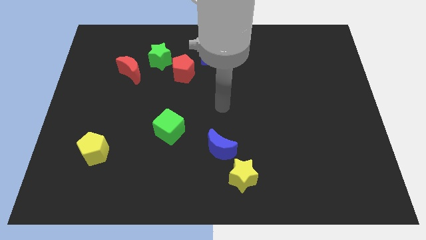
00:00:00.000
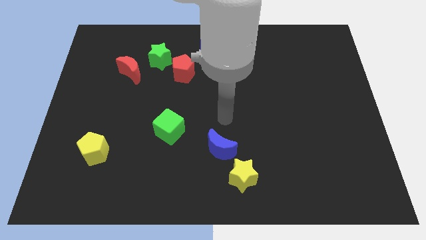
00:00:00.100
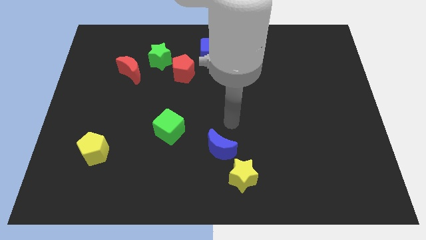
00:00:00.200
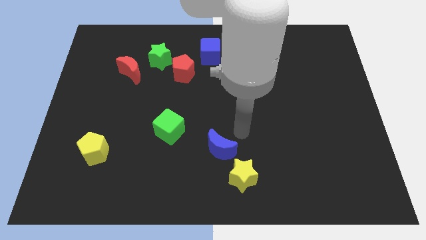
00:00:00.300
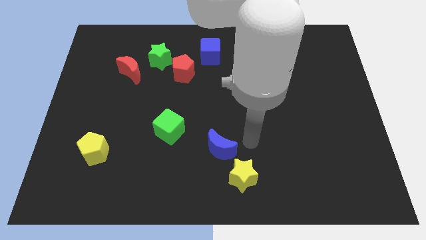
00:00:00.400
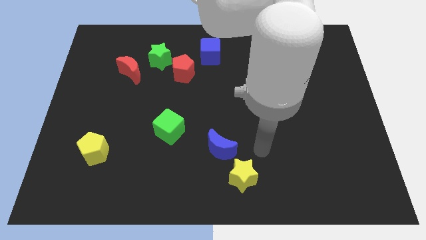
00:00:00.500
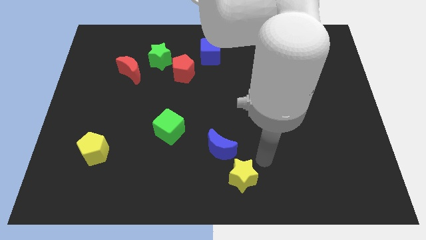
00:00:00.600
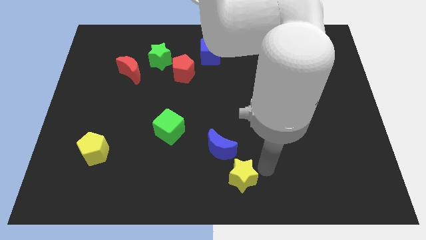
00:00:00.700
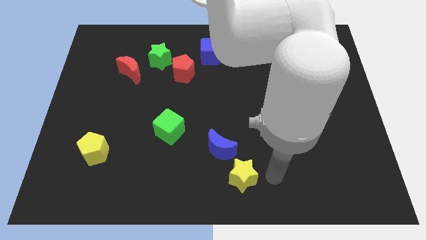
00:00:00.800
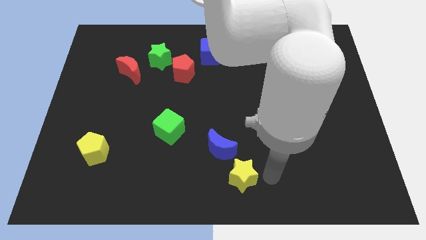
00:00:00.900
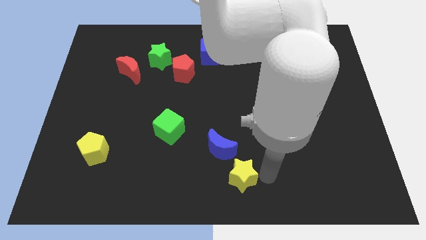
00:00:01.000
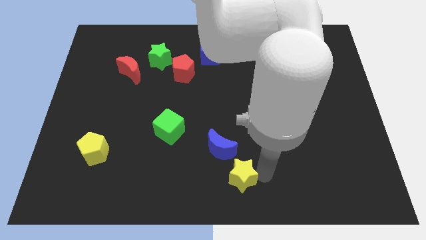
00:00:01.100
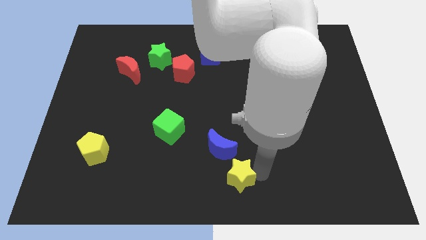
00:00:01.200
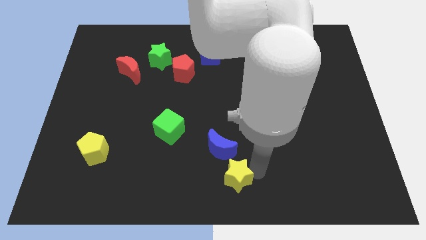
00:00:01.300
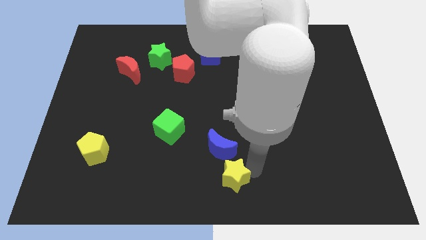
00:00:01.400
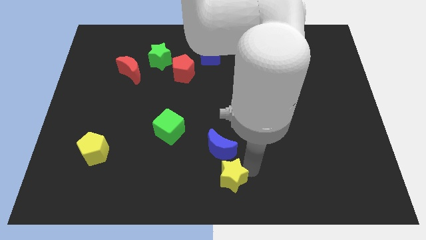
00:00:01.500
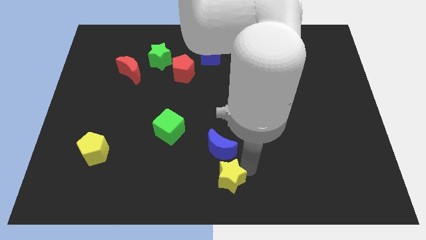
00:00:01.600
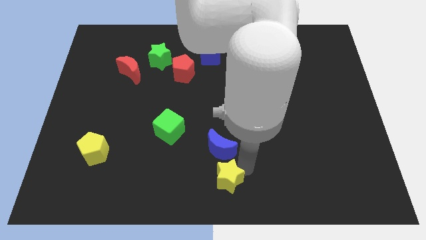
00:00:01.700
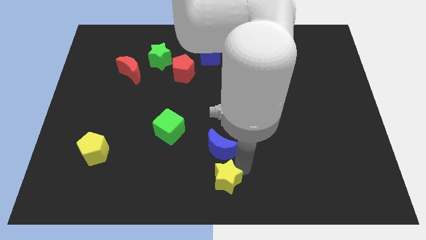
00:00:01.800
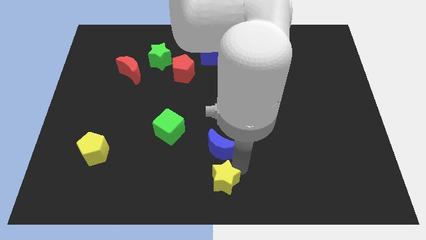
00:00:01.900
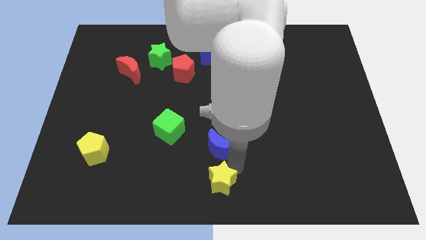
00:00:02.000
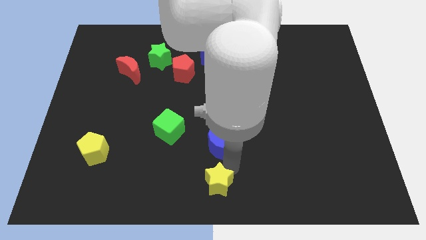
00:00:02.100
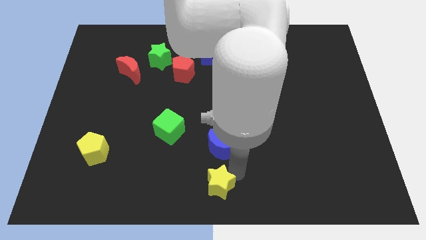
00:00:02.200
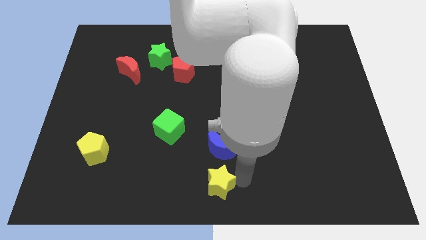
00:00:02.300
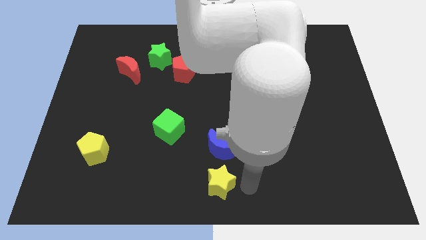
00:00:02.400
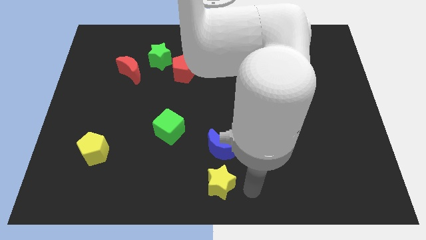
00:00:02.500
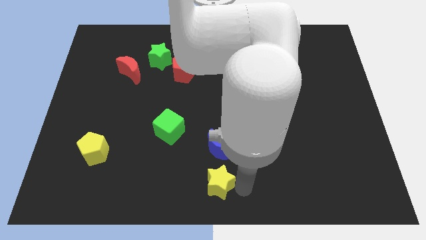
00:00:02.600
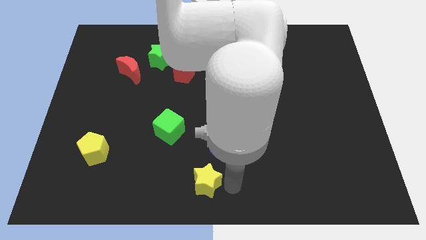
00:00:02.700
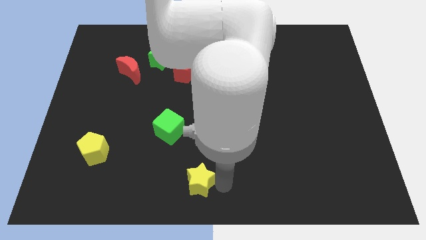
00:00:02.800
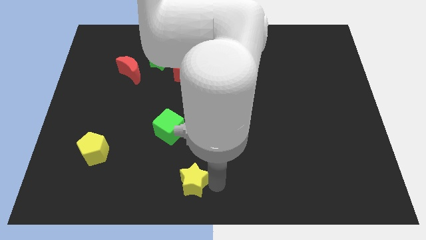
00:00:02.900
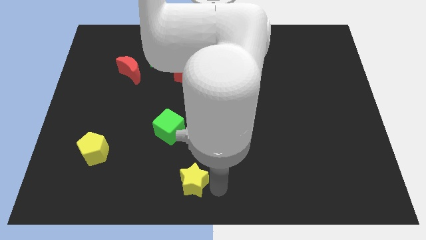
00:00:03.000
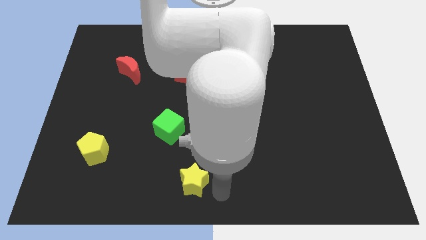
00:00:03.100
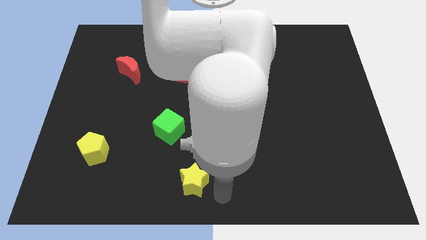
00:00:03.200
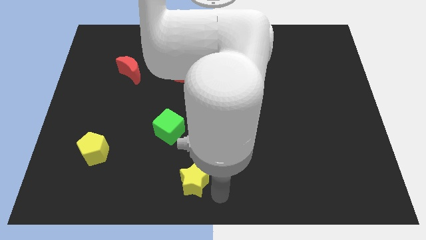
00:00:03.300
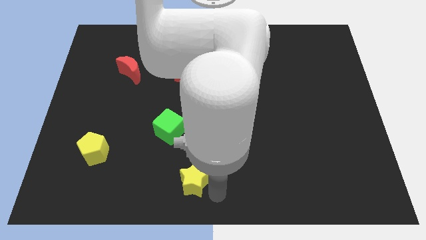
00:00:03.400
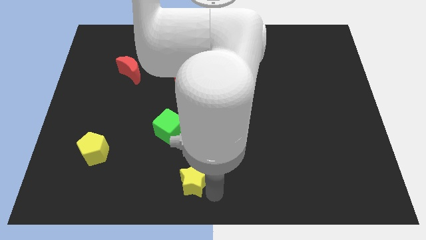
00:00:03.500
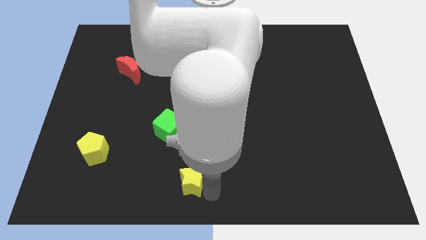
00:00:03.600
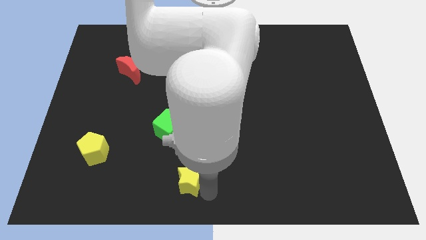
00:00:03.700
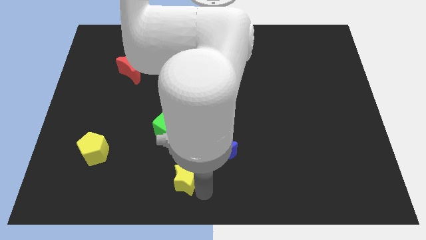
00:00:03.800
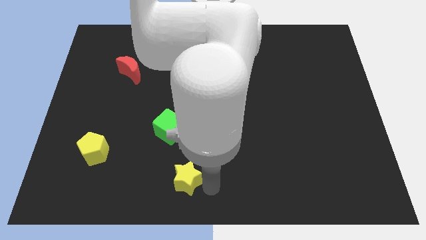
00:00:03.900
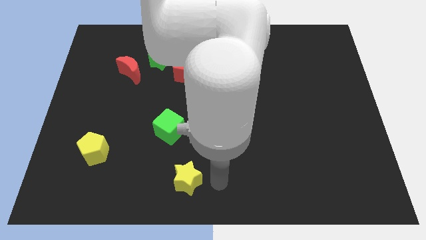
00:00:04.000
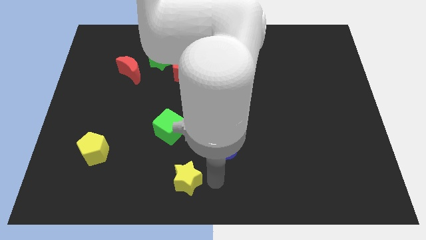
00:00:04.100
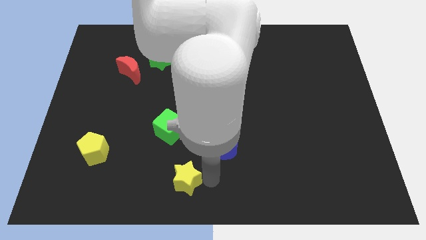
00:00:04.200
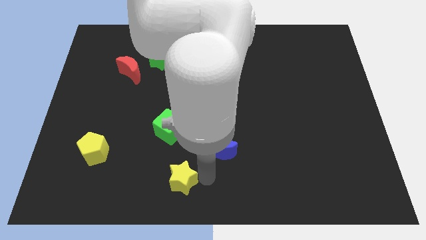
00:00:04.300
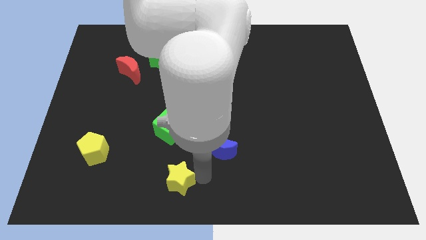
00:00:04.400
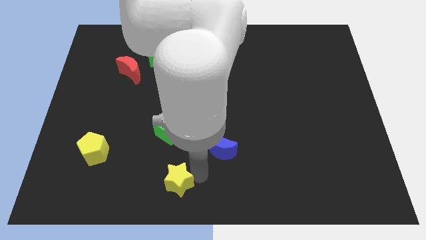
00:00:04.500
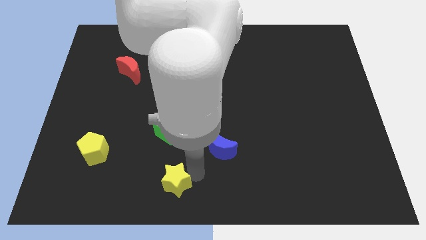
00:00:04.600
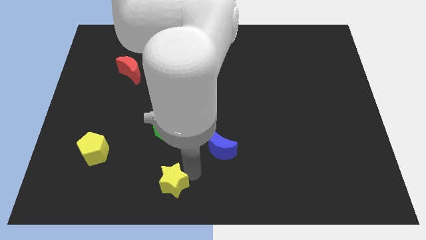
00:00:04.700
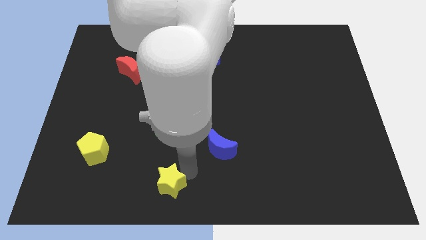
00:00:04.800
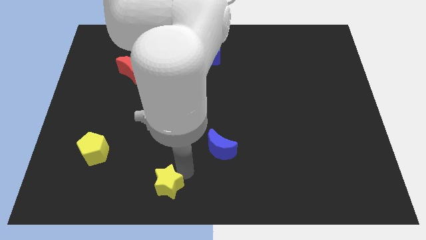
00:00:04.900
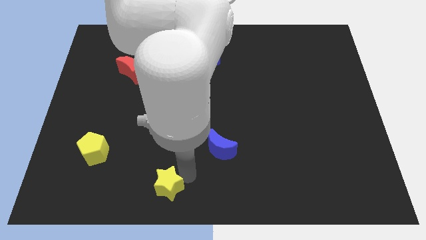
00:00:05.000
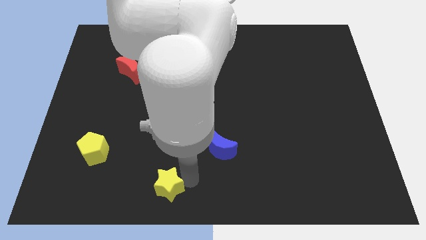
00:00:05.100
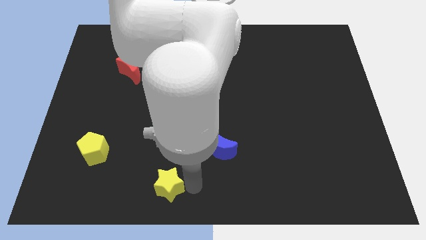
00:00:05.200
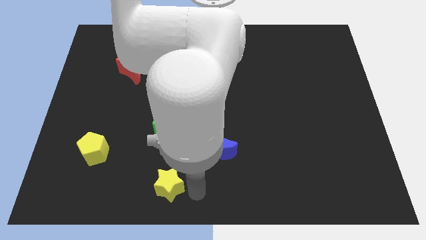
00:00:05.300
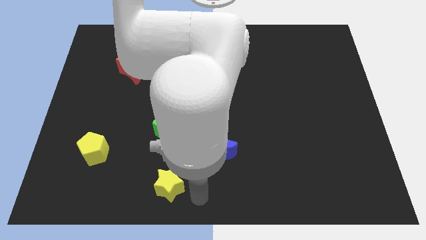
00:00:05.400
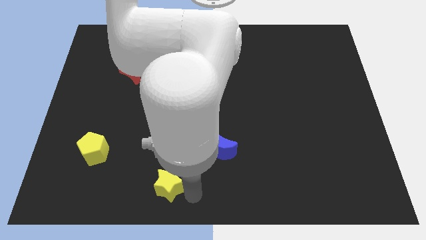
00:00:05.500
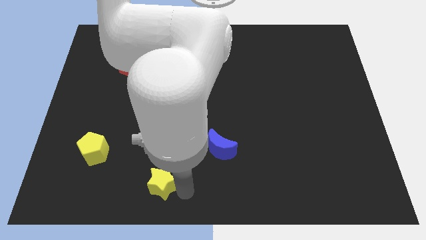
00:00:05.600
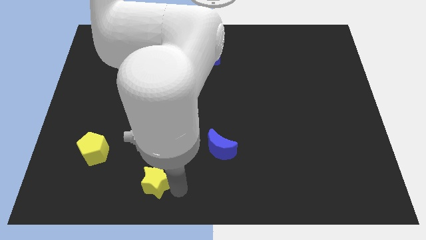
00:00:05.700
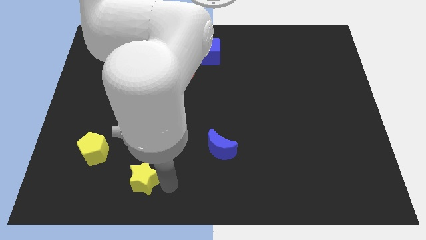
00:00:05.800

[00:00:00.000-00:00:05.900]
move the yellow star to the left

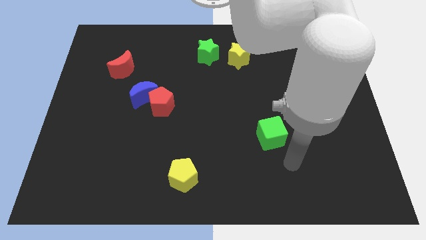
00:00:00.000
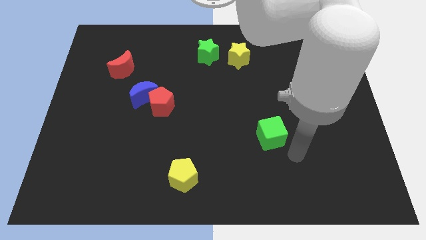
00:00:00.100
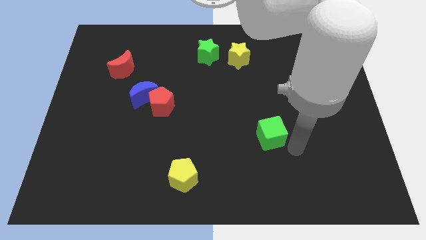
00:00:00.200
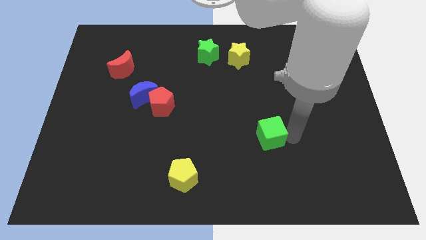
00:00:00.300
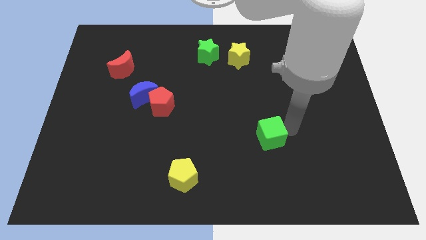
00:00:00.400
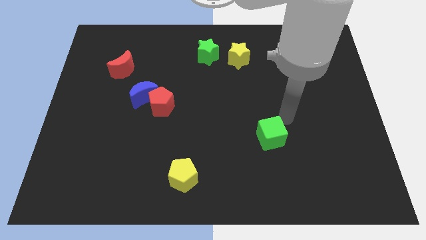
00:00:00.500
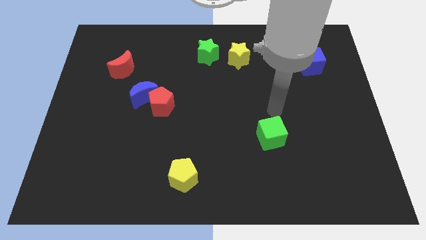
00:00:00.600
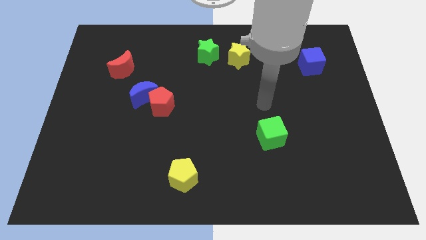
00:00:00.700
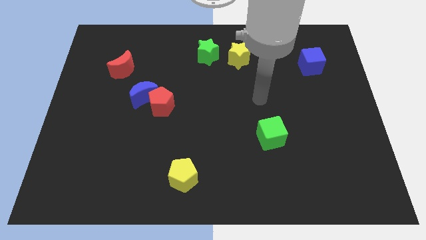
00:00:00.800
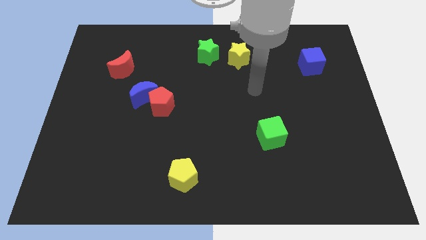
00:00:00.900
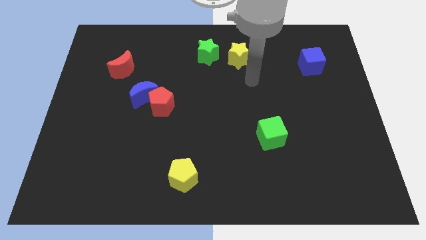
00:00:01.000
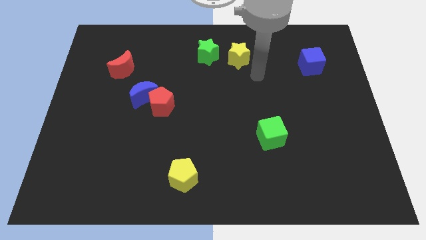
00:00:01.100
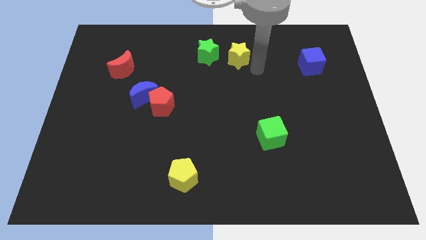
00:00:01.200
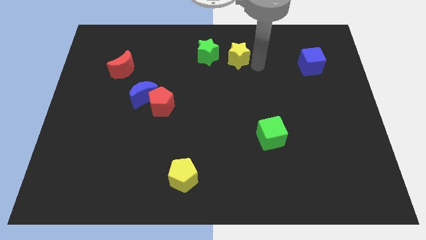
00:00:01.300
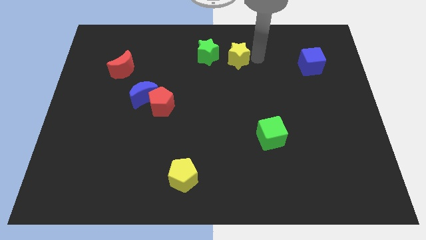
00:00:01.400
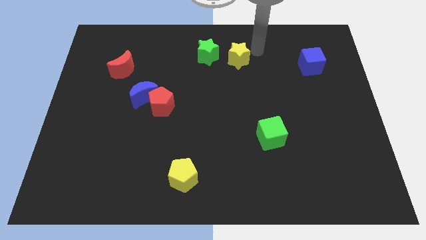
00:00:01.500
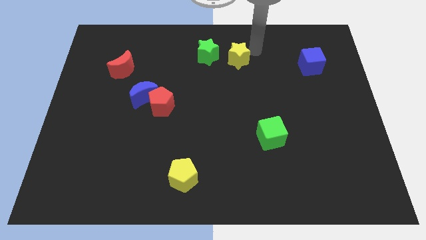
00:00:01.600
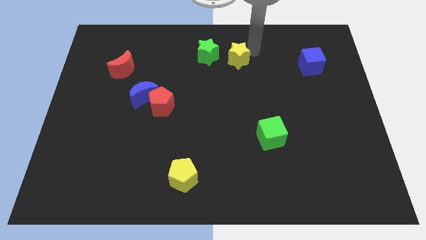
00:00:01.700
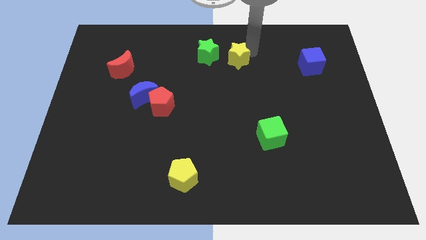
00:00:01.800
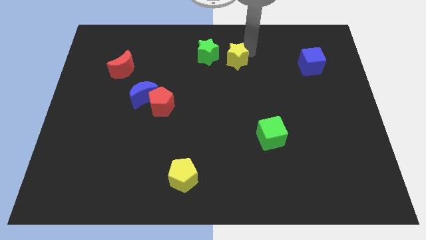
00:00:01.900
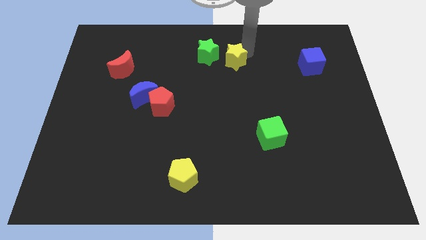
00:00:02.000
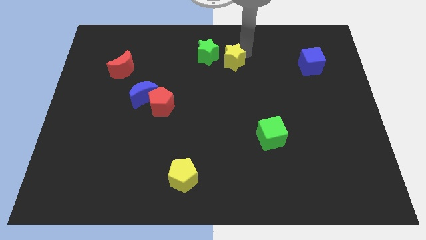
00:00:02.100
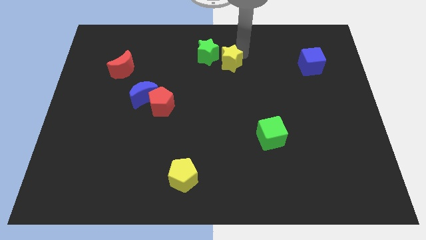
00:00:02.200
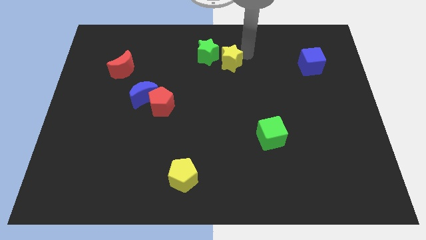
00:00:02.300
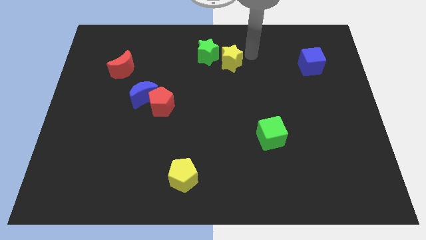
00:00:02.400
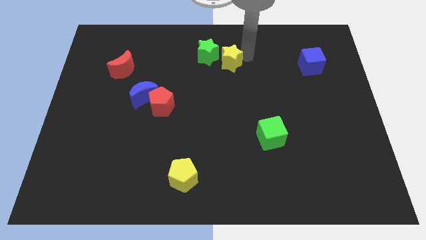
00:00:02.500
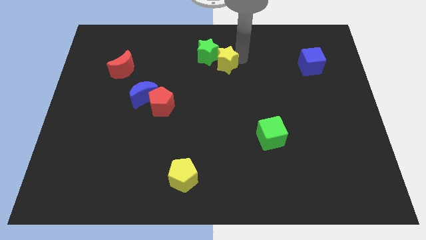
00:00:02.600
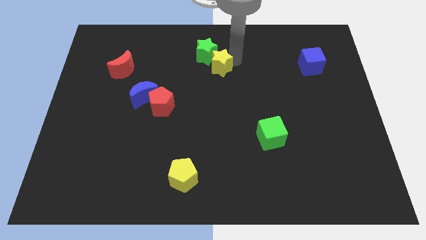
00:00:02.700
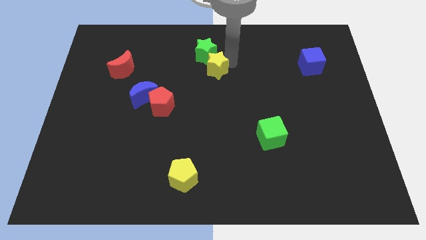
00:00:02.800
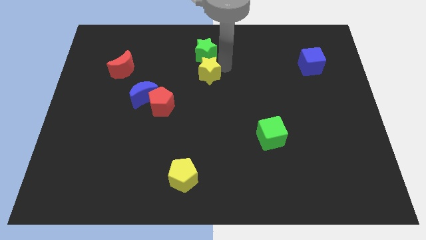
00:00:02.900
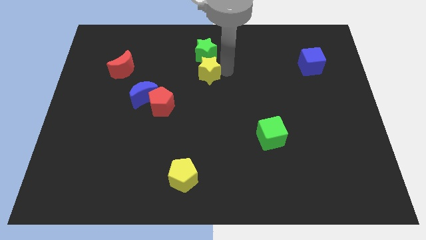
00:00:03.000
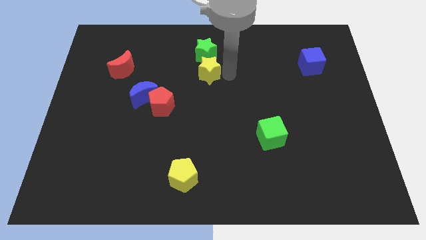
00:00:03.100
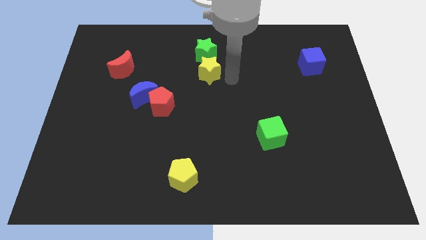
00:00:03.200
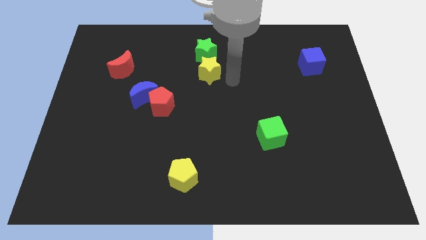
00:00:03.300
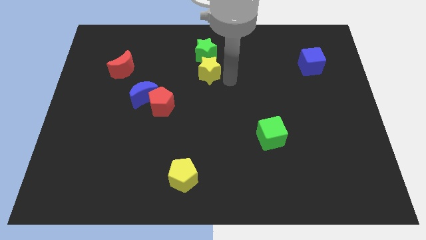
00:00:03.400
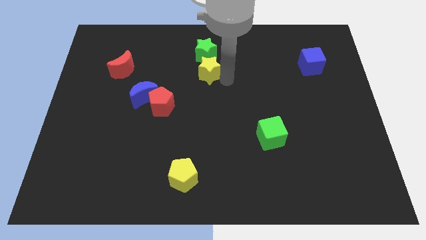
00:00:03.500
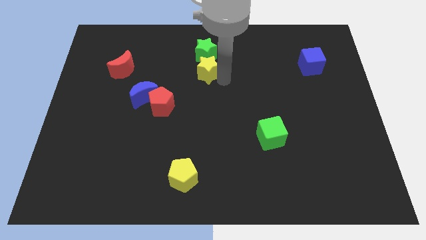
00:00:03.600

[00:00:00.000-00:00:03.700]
slightly slide the yellow star to the left
